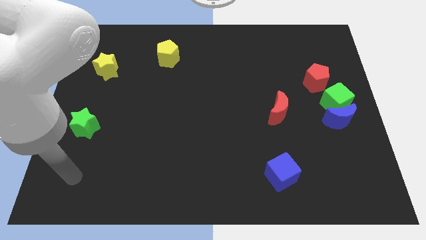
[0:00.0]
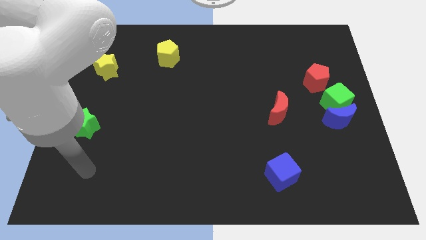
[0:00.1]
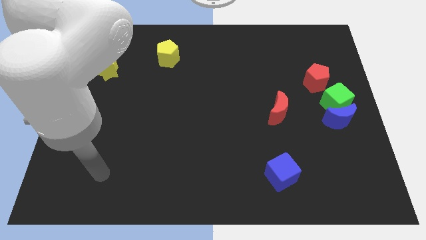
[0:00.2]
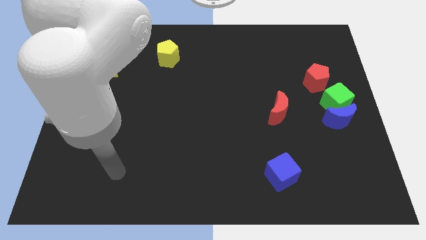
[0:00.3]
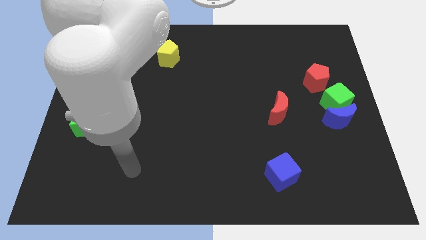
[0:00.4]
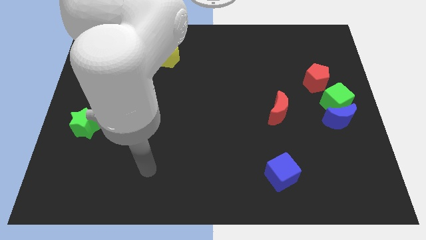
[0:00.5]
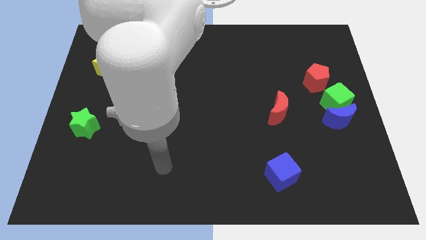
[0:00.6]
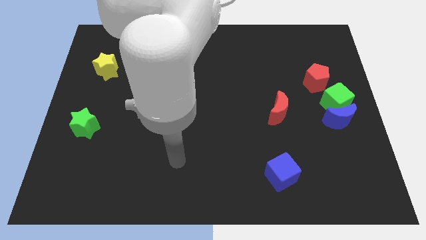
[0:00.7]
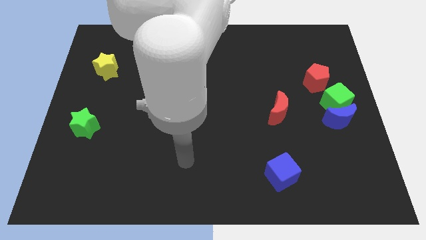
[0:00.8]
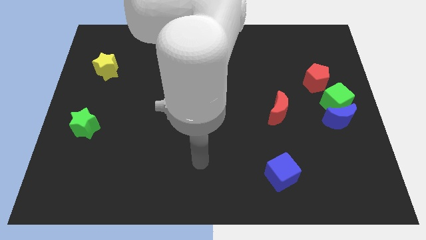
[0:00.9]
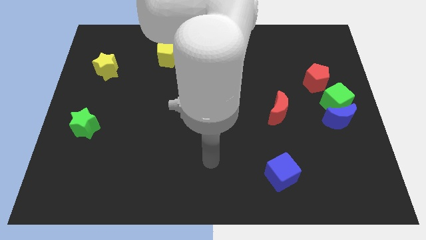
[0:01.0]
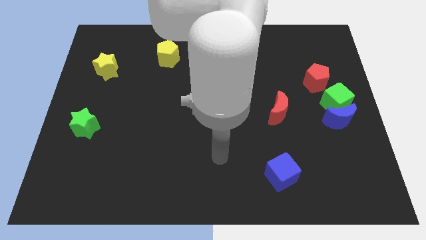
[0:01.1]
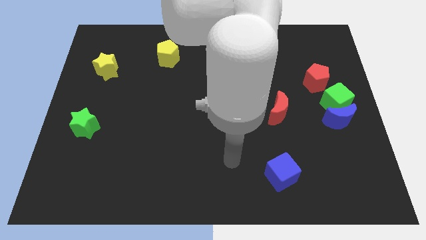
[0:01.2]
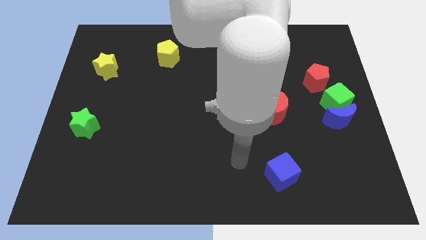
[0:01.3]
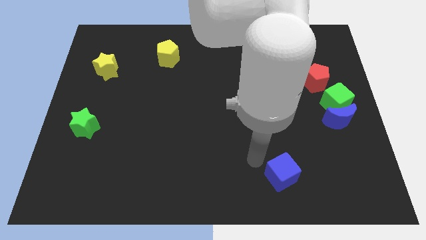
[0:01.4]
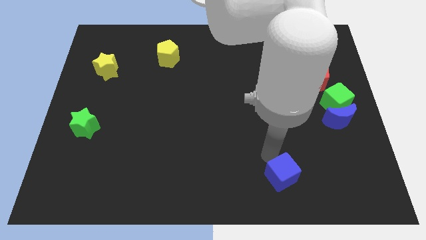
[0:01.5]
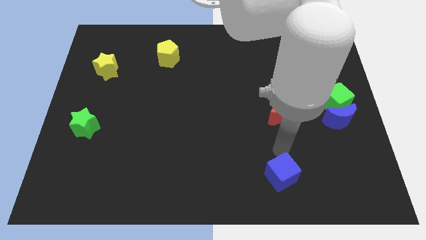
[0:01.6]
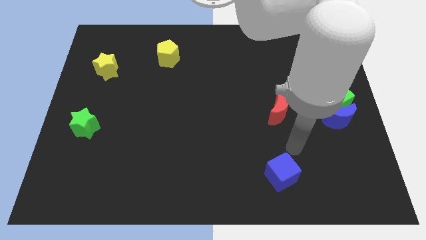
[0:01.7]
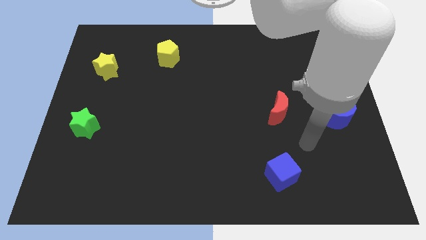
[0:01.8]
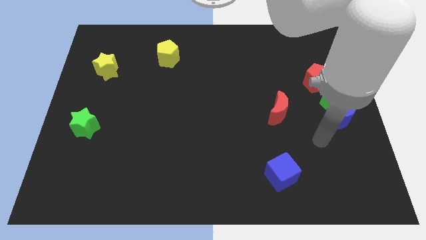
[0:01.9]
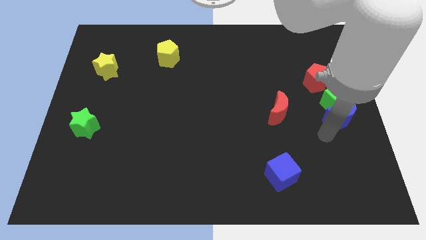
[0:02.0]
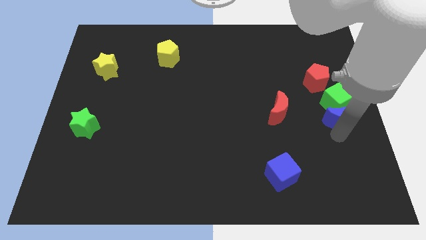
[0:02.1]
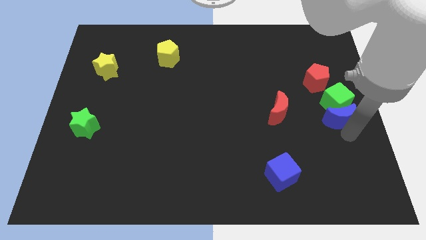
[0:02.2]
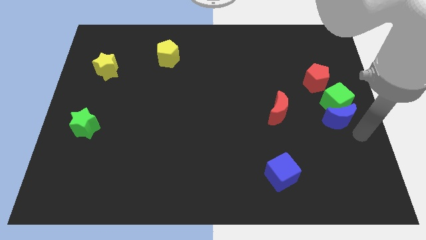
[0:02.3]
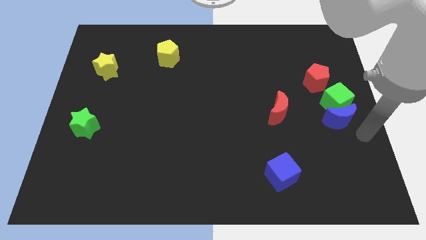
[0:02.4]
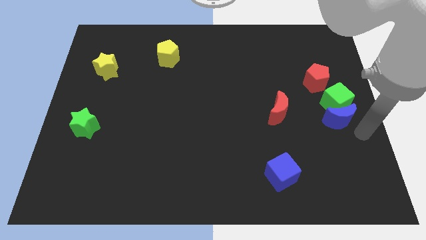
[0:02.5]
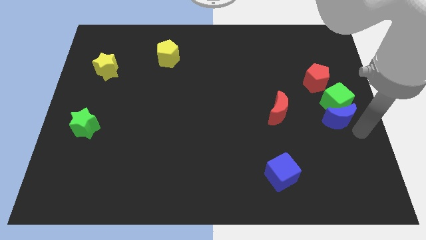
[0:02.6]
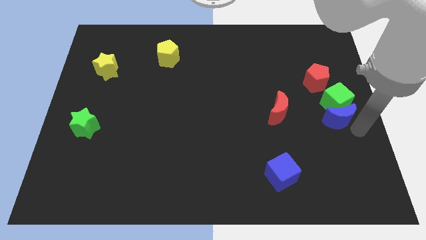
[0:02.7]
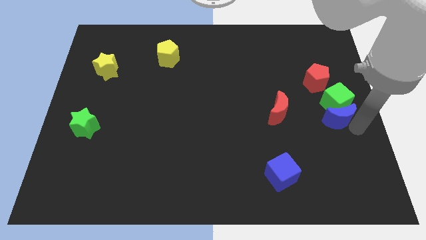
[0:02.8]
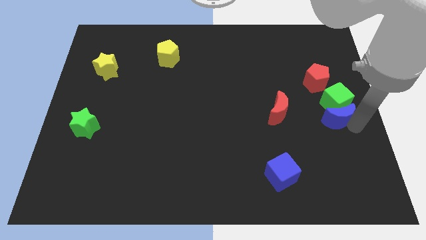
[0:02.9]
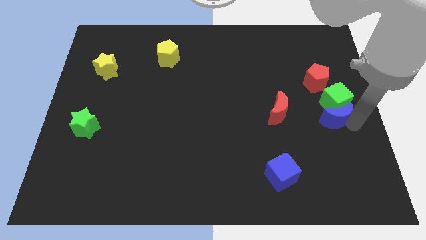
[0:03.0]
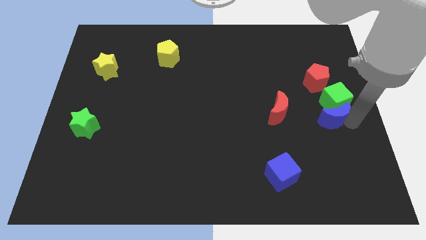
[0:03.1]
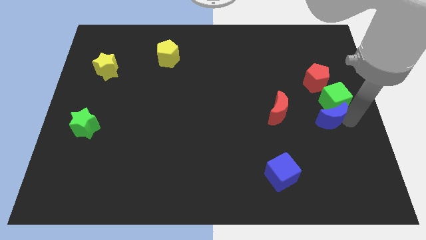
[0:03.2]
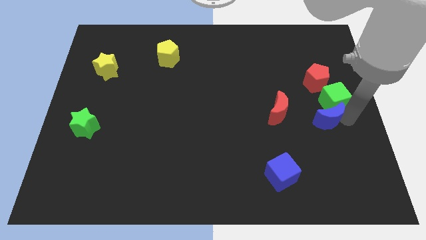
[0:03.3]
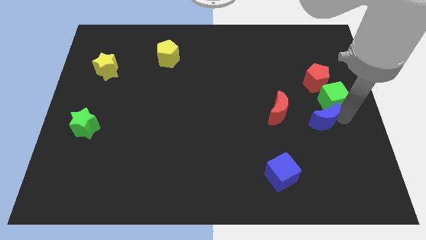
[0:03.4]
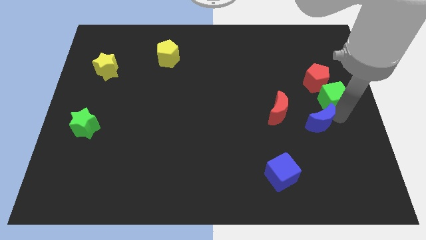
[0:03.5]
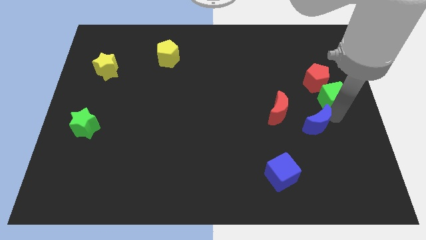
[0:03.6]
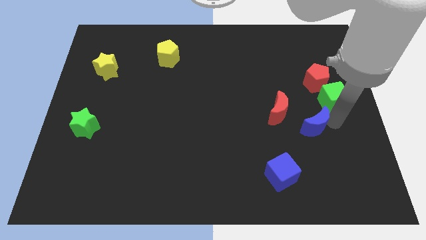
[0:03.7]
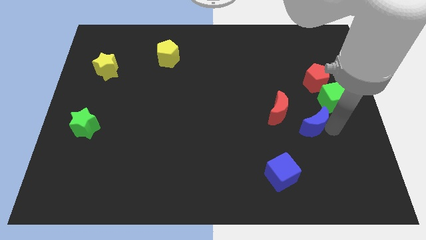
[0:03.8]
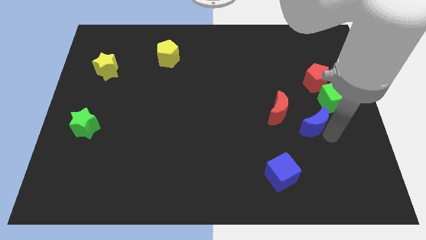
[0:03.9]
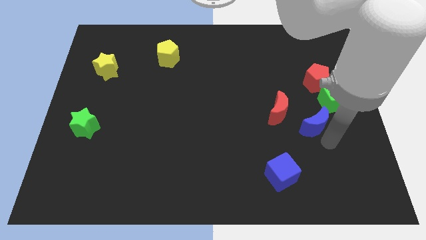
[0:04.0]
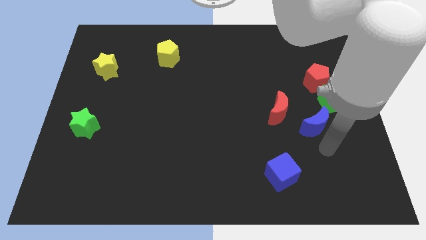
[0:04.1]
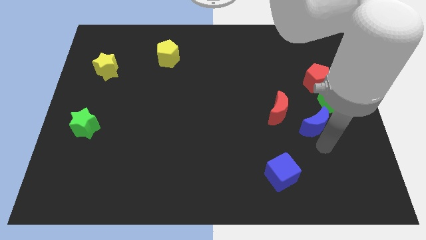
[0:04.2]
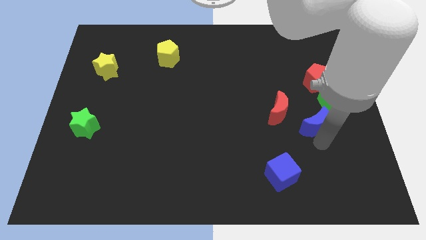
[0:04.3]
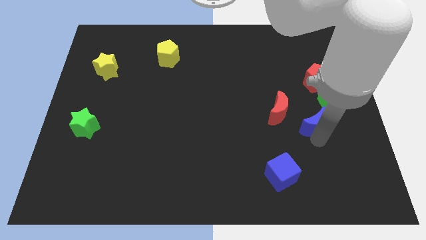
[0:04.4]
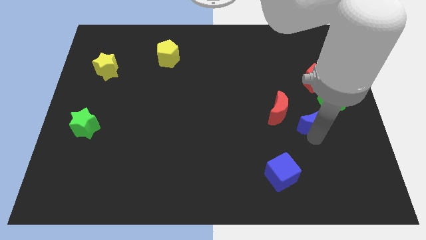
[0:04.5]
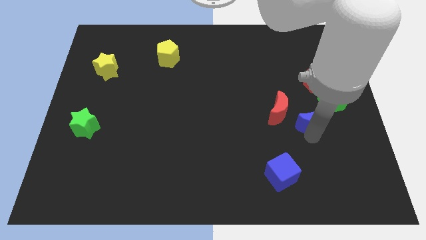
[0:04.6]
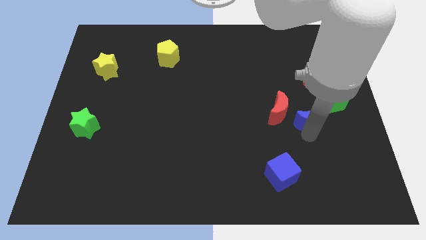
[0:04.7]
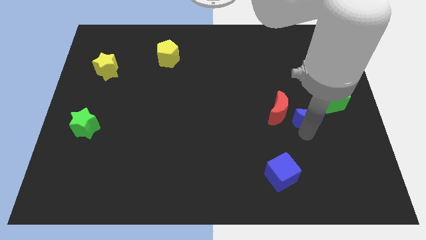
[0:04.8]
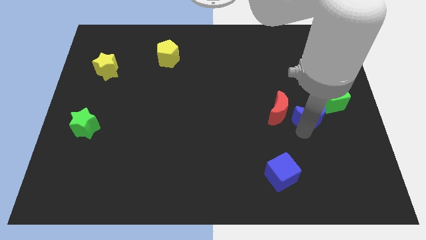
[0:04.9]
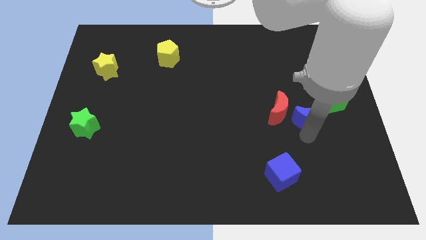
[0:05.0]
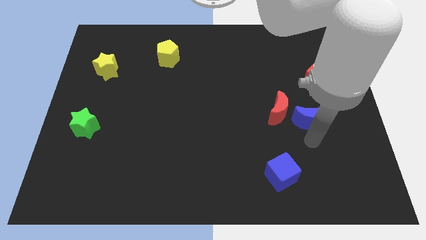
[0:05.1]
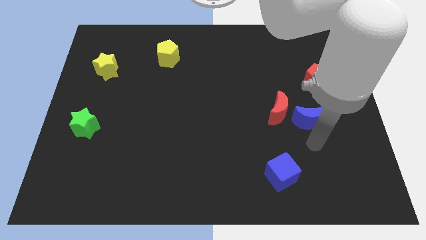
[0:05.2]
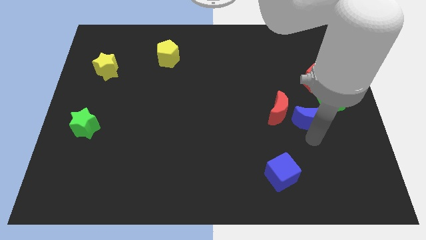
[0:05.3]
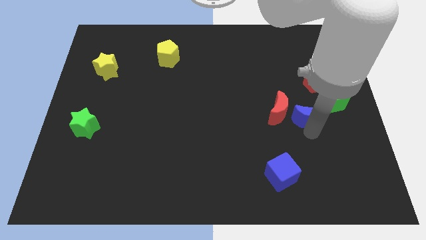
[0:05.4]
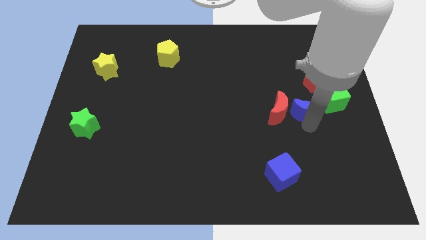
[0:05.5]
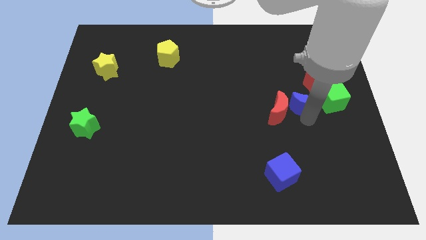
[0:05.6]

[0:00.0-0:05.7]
slide the blue moon diagonally up and to the left slightly

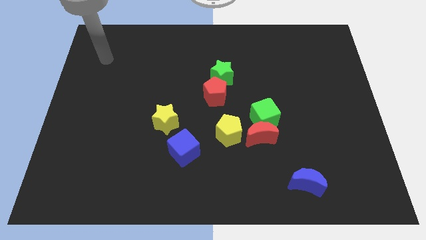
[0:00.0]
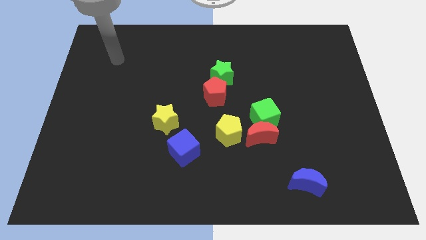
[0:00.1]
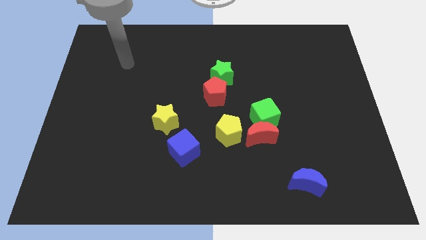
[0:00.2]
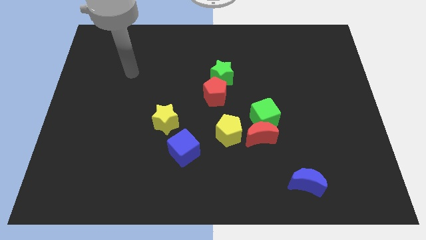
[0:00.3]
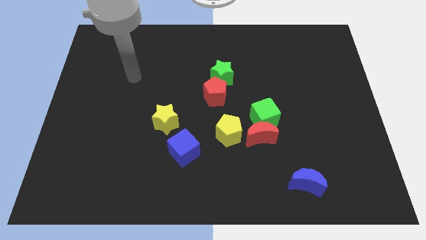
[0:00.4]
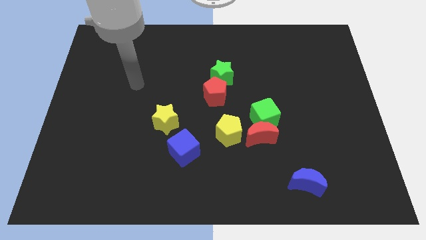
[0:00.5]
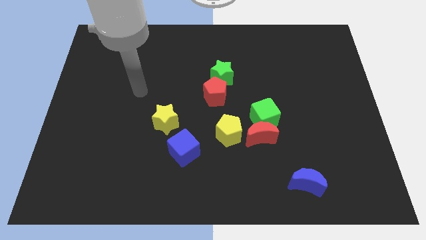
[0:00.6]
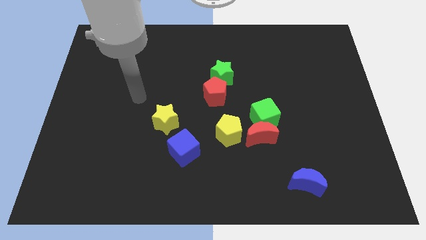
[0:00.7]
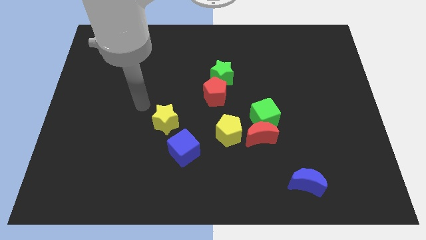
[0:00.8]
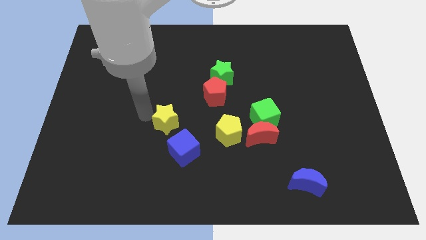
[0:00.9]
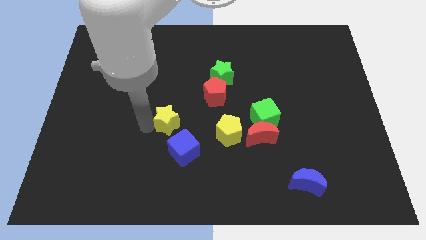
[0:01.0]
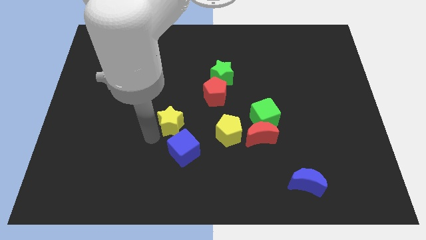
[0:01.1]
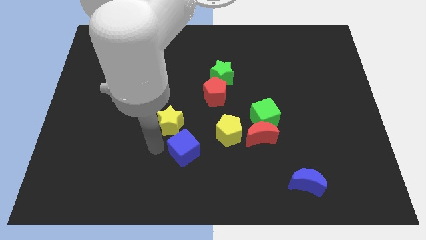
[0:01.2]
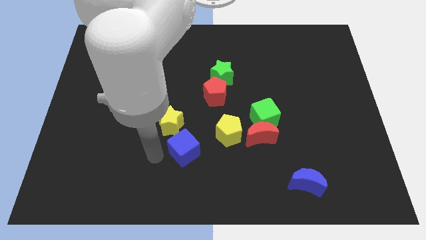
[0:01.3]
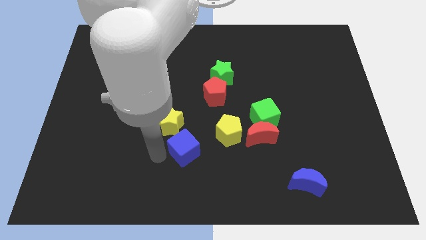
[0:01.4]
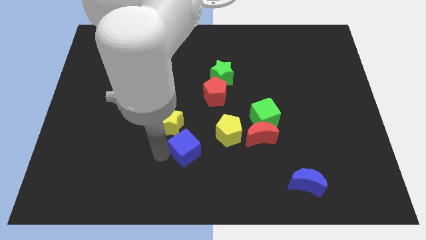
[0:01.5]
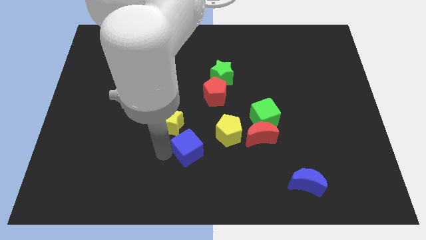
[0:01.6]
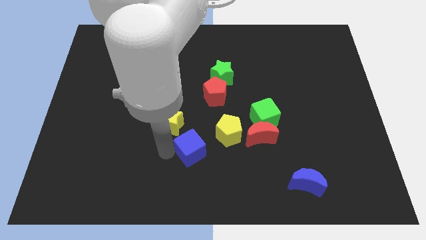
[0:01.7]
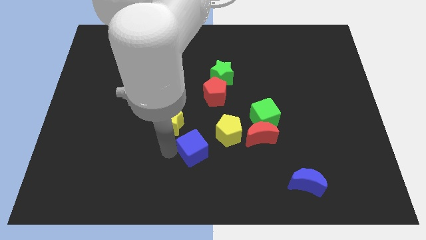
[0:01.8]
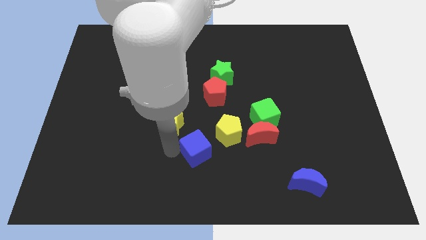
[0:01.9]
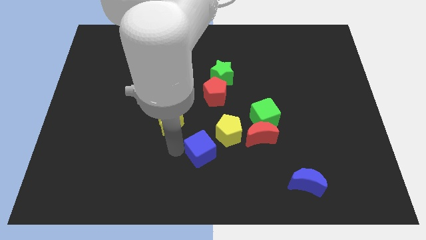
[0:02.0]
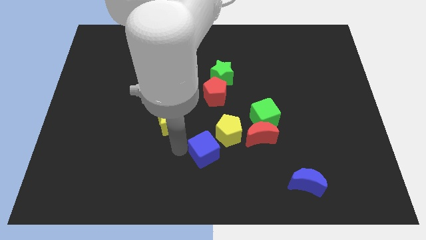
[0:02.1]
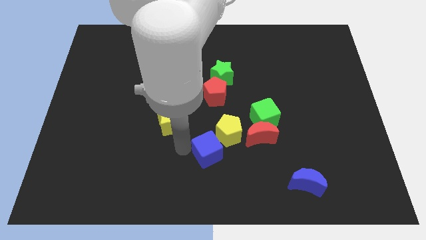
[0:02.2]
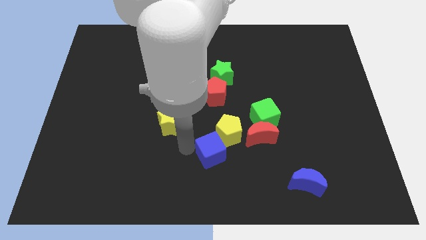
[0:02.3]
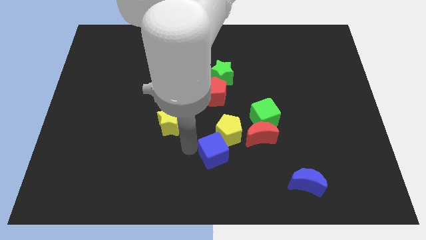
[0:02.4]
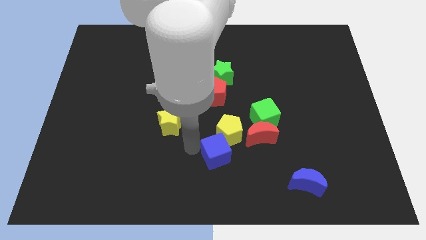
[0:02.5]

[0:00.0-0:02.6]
move the blue cube right a little bit
